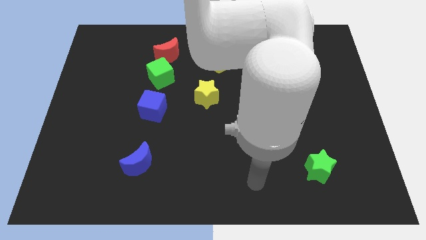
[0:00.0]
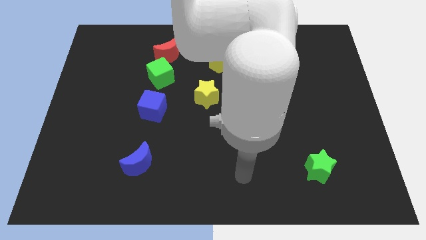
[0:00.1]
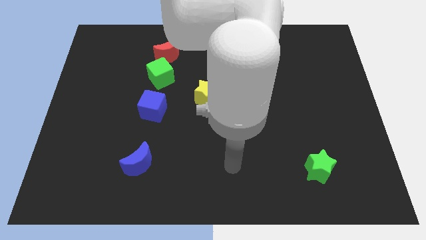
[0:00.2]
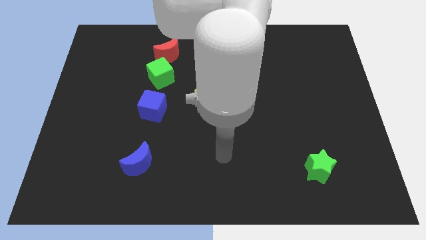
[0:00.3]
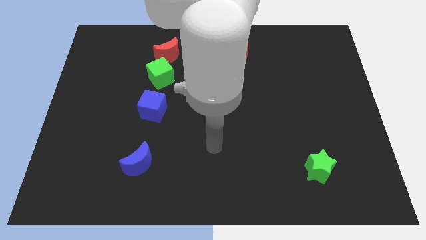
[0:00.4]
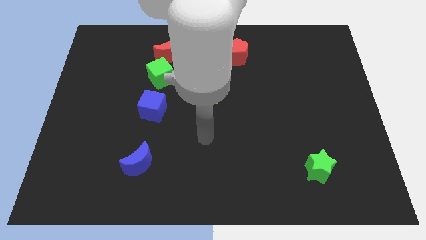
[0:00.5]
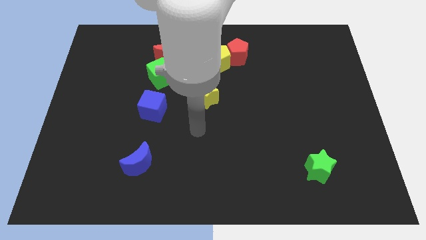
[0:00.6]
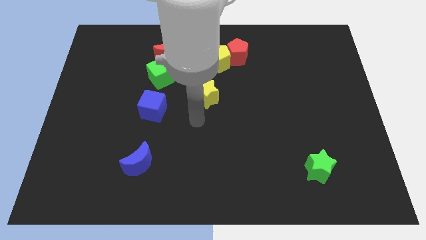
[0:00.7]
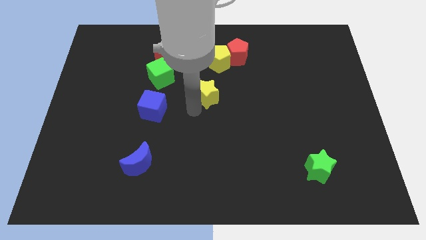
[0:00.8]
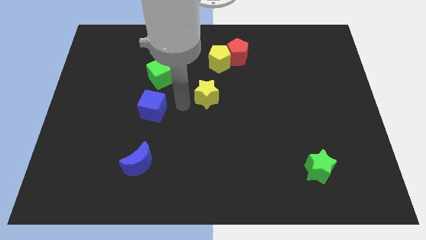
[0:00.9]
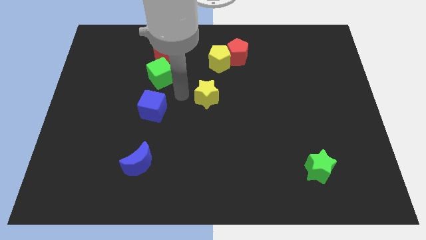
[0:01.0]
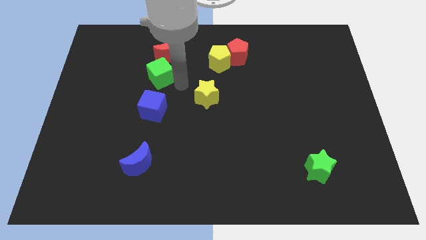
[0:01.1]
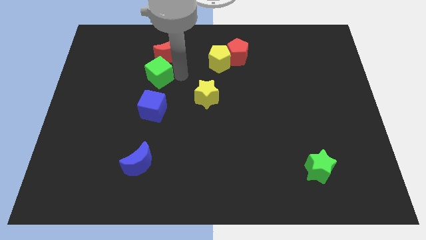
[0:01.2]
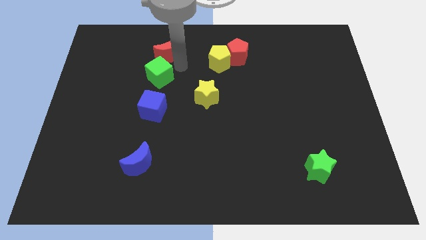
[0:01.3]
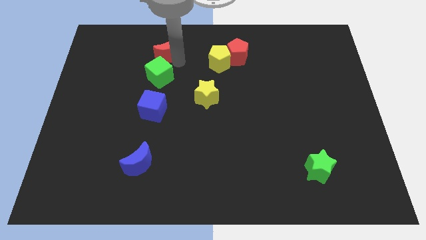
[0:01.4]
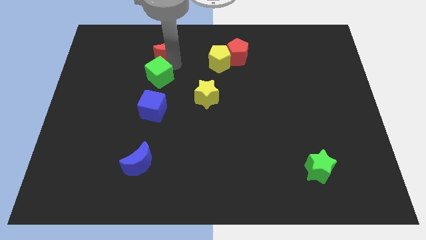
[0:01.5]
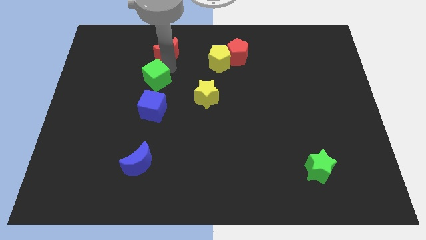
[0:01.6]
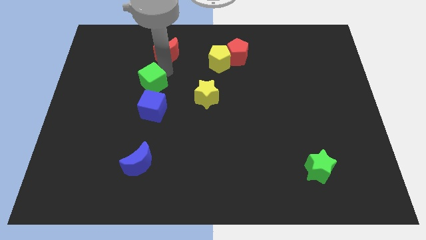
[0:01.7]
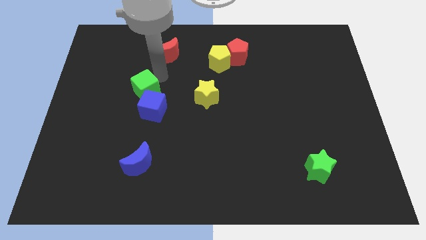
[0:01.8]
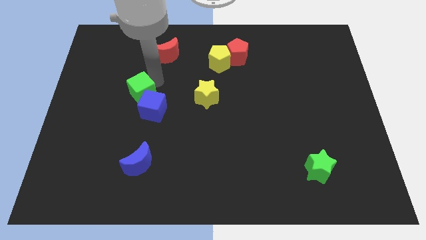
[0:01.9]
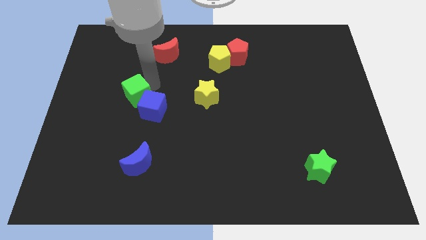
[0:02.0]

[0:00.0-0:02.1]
move the green cube a little bit down and then to the left

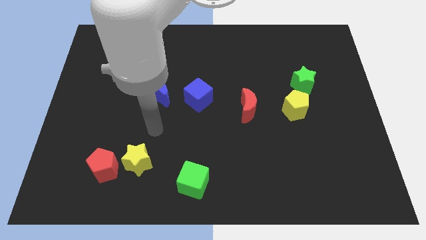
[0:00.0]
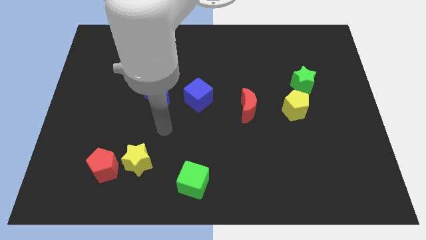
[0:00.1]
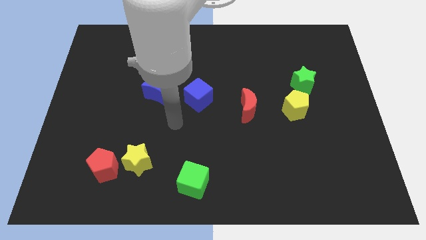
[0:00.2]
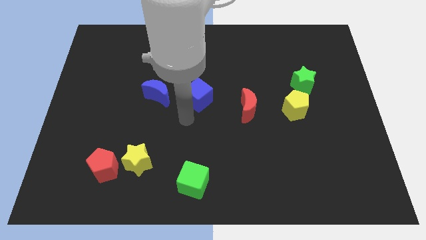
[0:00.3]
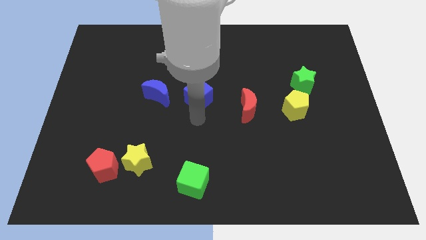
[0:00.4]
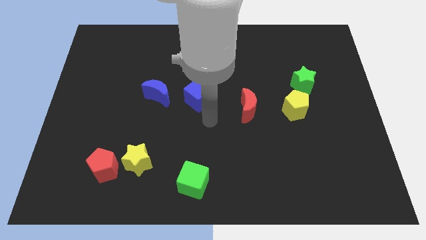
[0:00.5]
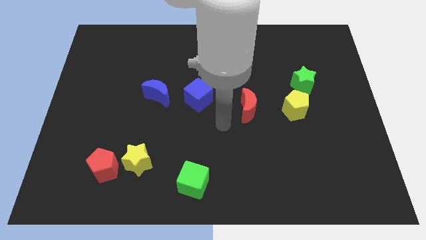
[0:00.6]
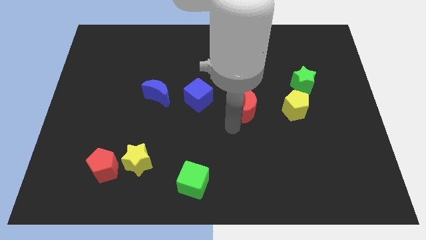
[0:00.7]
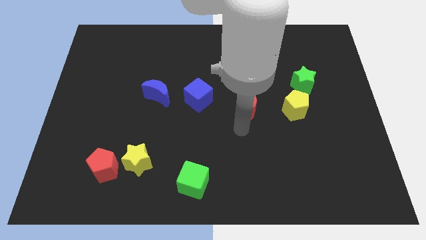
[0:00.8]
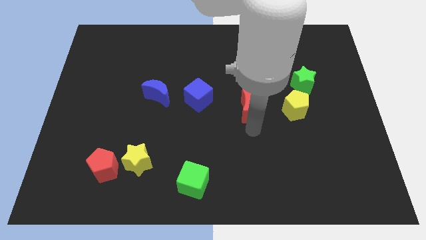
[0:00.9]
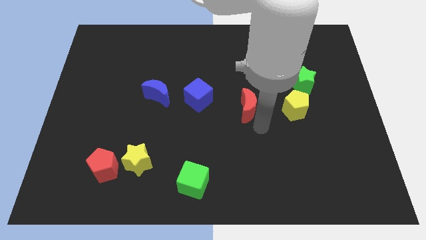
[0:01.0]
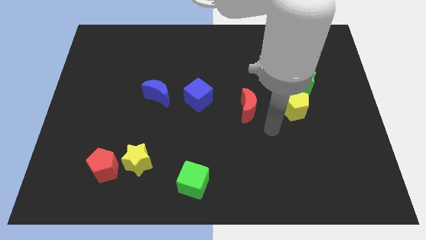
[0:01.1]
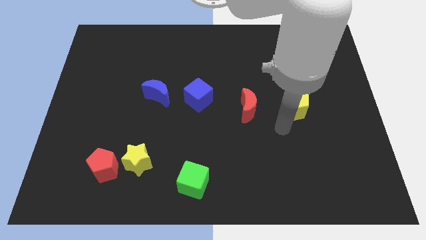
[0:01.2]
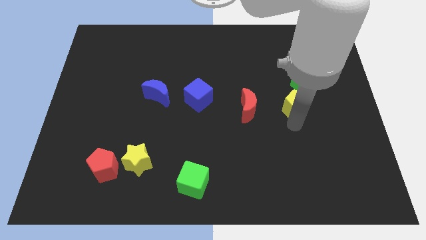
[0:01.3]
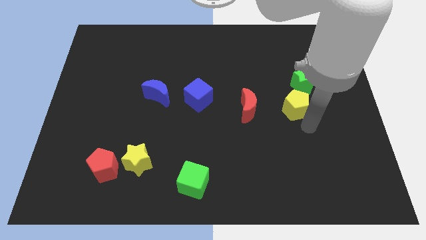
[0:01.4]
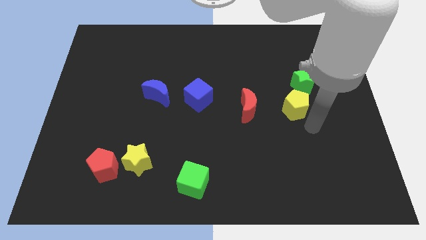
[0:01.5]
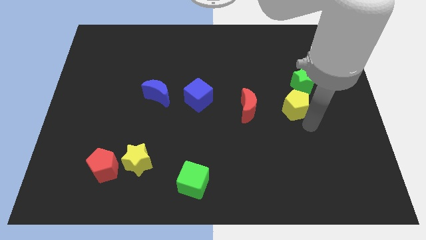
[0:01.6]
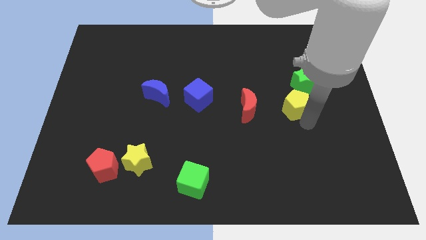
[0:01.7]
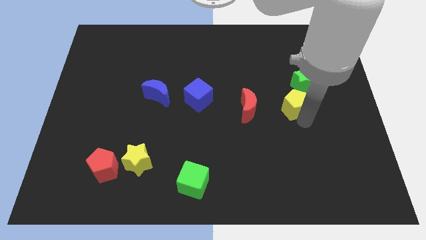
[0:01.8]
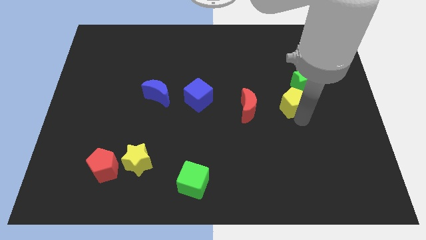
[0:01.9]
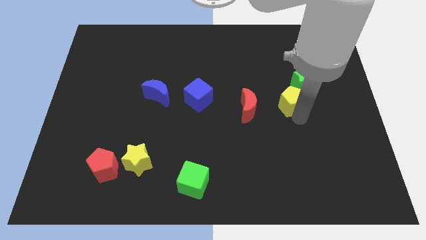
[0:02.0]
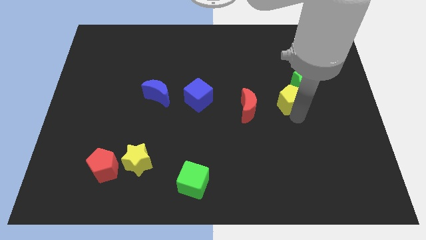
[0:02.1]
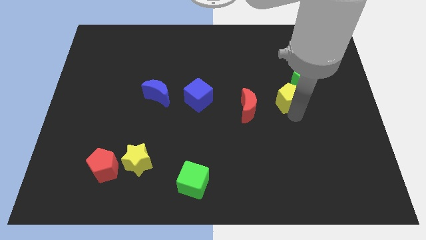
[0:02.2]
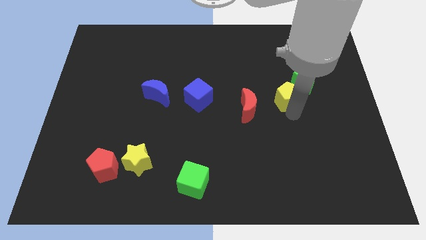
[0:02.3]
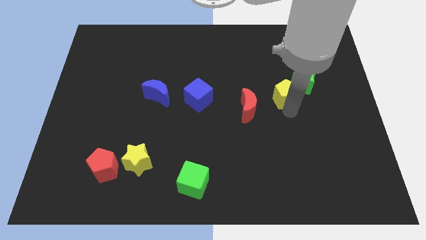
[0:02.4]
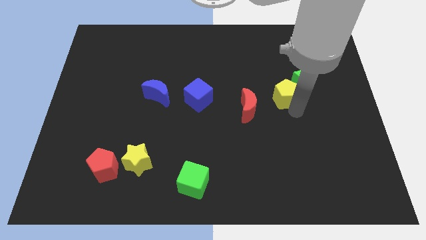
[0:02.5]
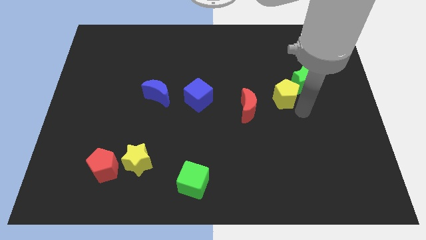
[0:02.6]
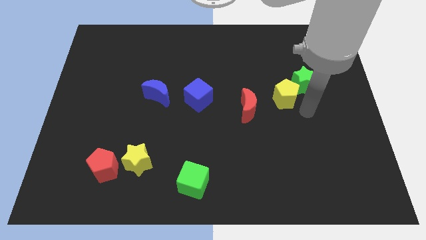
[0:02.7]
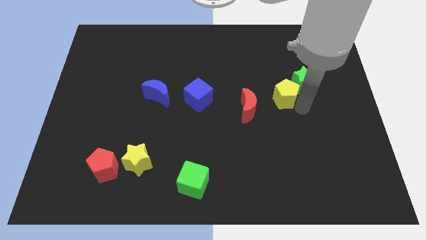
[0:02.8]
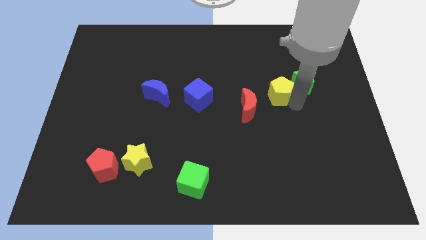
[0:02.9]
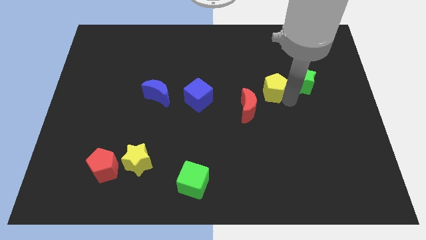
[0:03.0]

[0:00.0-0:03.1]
slide the yellow pentagon a little up and left

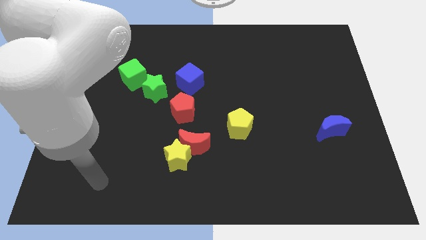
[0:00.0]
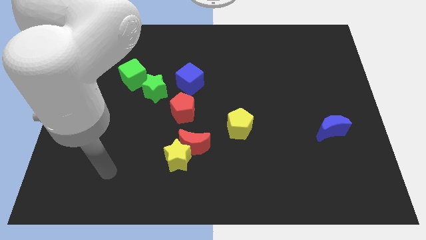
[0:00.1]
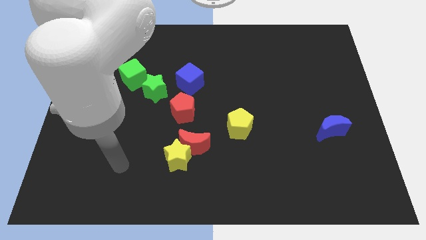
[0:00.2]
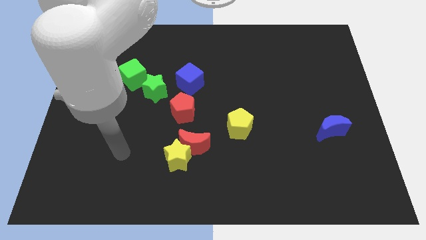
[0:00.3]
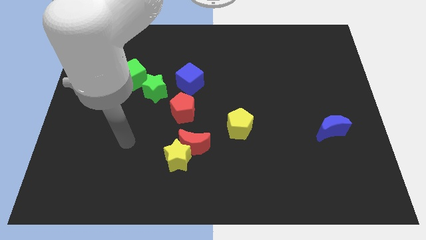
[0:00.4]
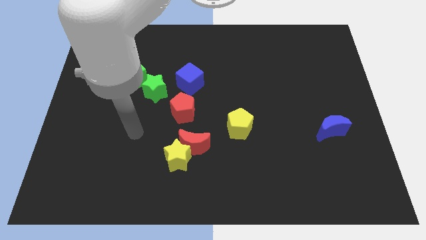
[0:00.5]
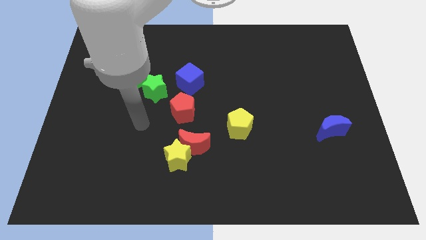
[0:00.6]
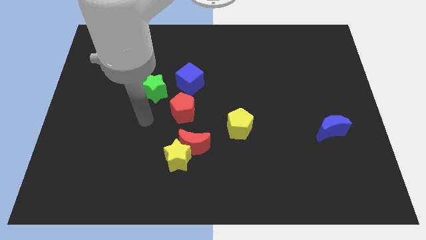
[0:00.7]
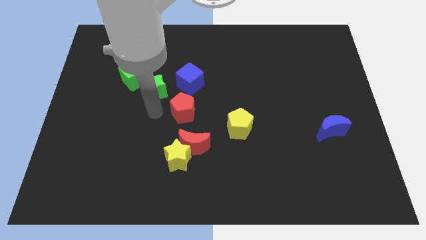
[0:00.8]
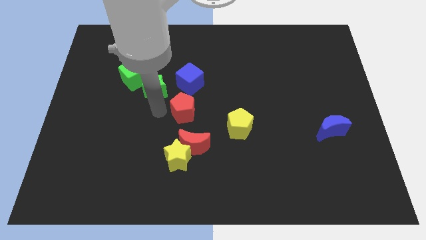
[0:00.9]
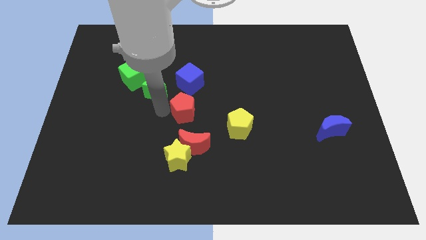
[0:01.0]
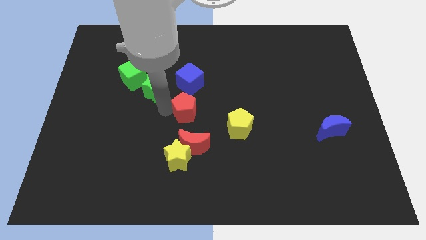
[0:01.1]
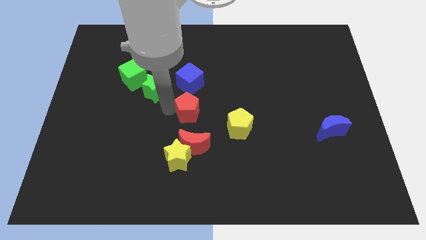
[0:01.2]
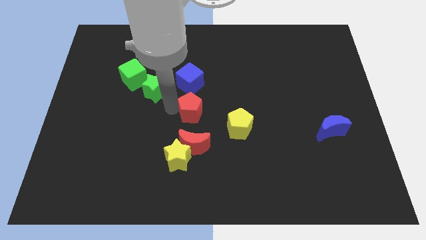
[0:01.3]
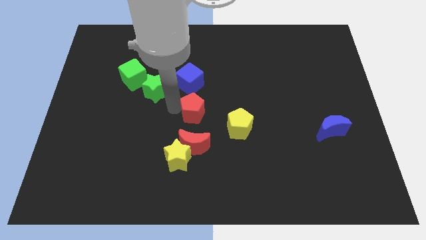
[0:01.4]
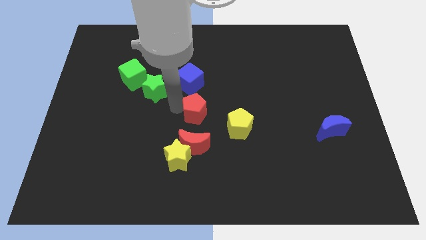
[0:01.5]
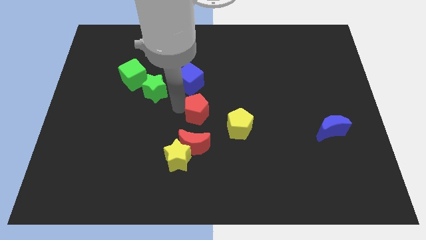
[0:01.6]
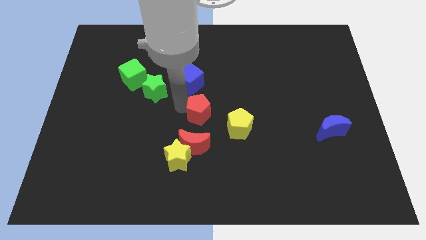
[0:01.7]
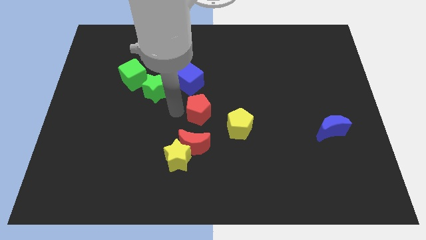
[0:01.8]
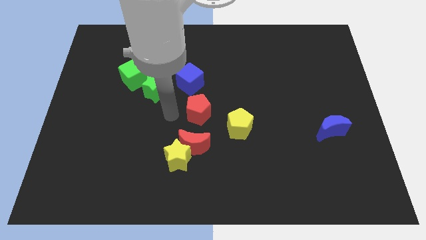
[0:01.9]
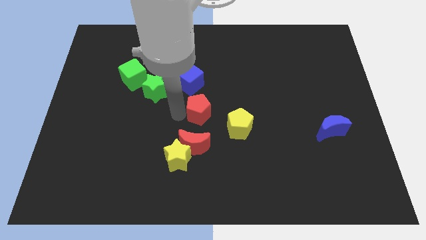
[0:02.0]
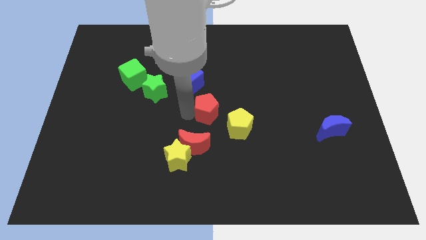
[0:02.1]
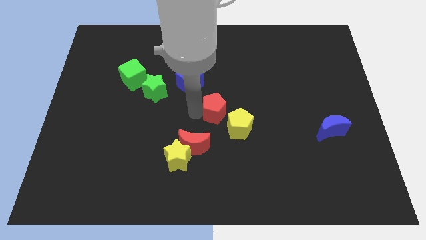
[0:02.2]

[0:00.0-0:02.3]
push the red pentagon right somewhat

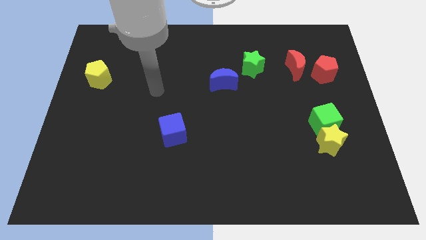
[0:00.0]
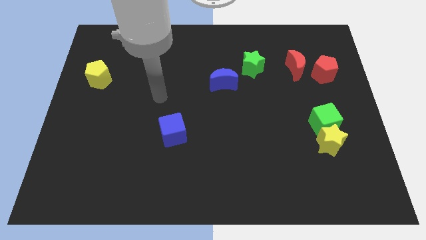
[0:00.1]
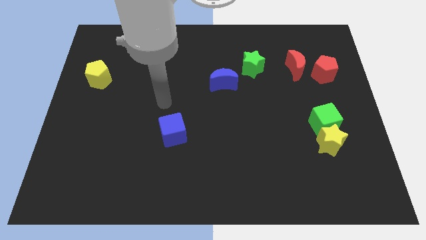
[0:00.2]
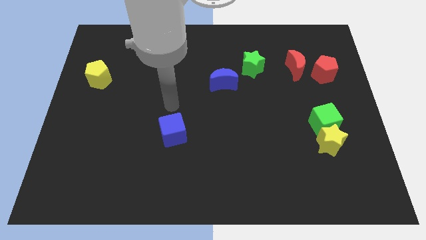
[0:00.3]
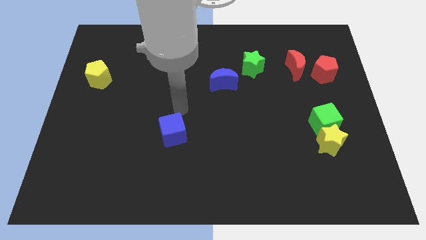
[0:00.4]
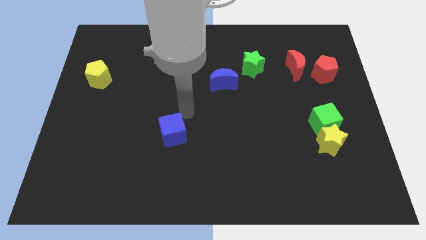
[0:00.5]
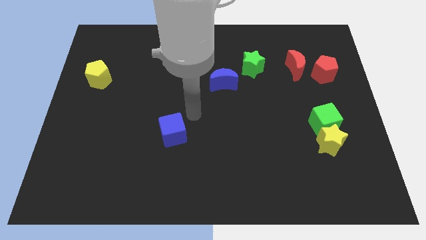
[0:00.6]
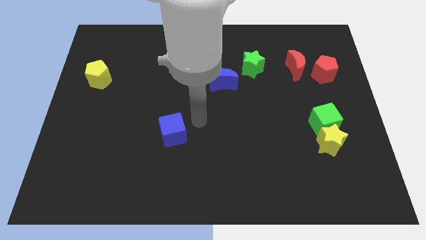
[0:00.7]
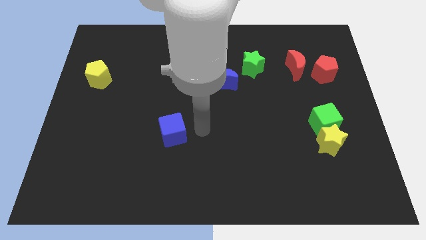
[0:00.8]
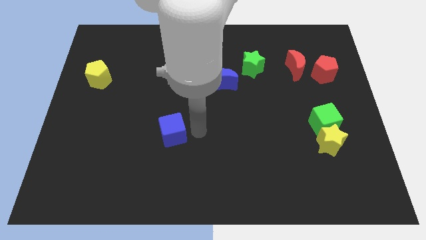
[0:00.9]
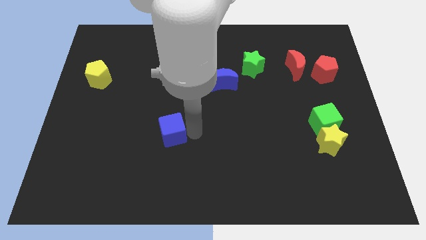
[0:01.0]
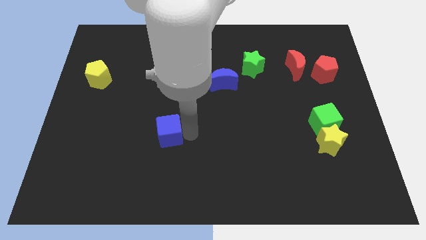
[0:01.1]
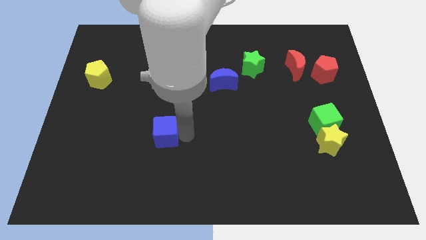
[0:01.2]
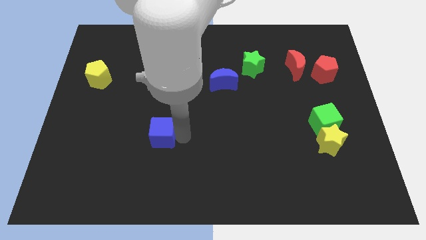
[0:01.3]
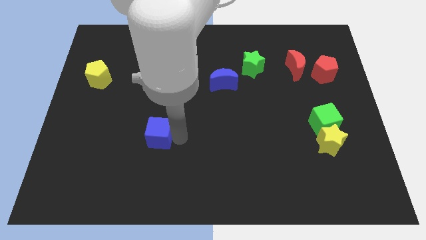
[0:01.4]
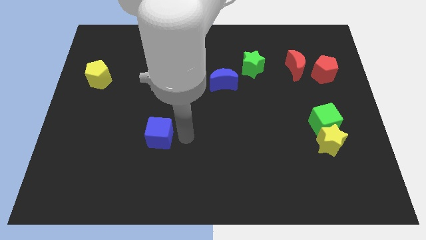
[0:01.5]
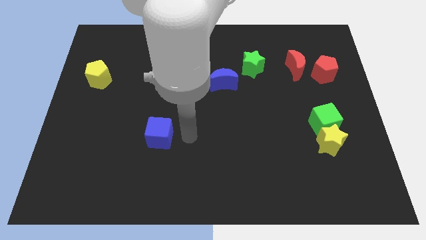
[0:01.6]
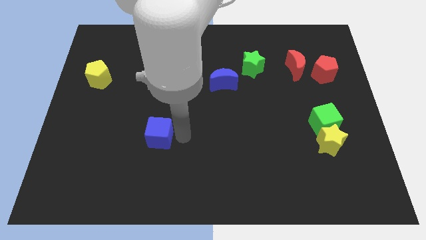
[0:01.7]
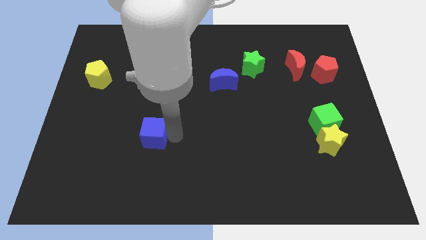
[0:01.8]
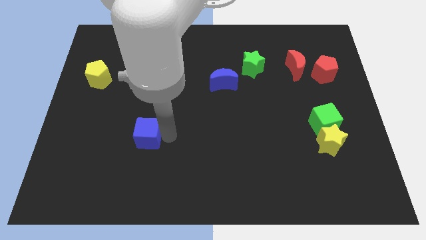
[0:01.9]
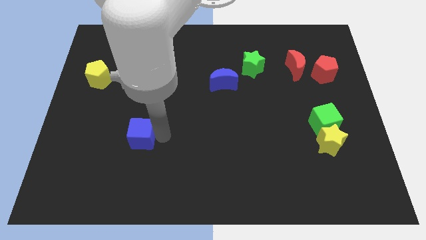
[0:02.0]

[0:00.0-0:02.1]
push the blue cube left a little
